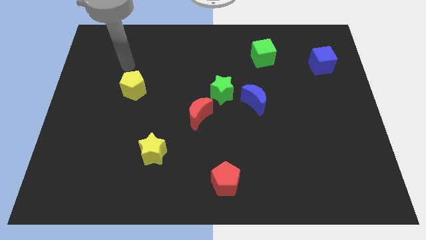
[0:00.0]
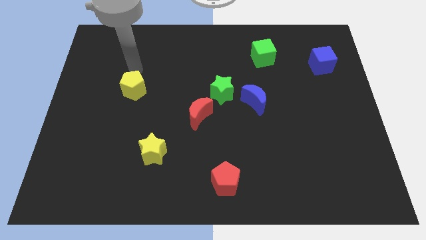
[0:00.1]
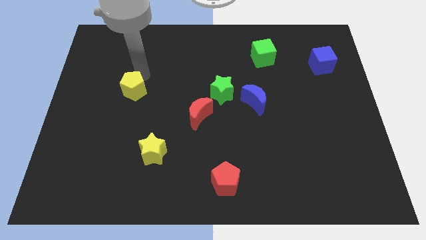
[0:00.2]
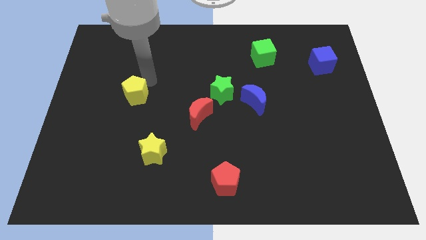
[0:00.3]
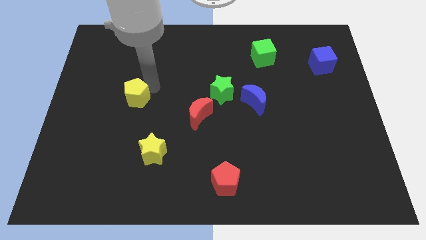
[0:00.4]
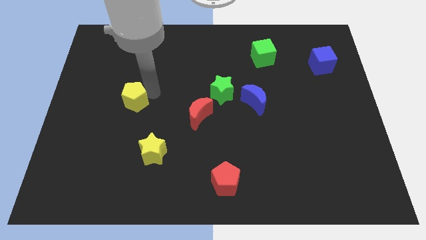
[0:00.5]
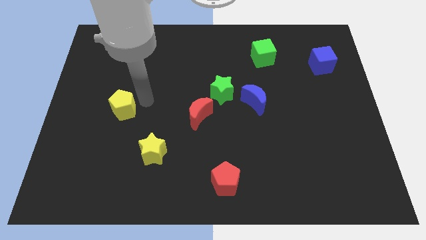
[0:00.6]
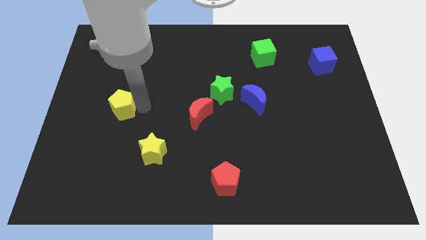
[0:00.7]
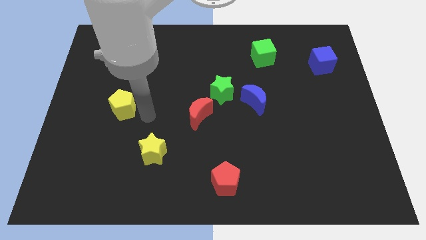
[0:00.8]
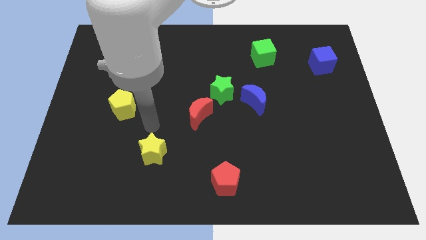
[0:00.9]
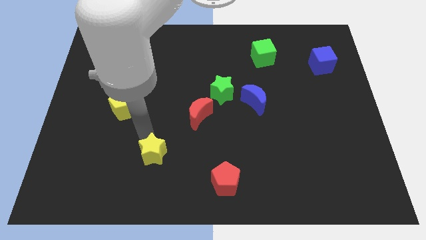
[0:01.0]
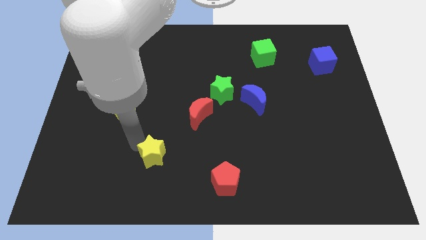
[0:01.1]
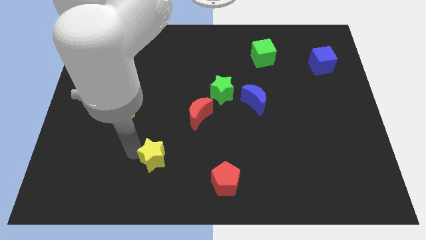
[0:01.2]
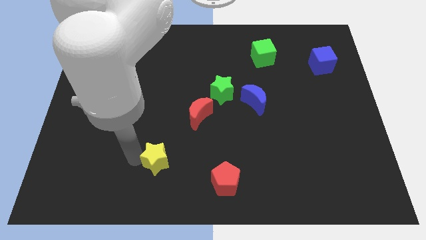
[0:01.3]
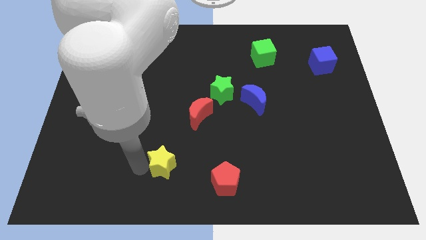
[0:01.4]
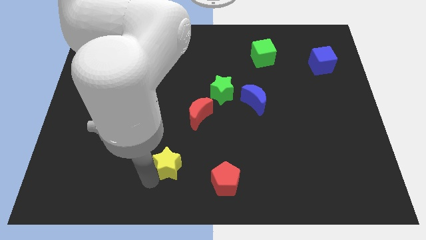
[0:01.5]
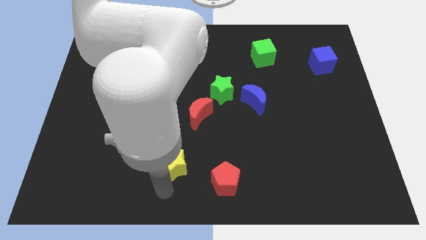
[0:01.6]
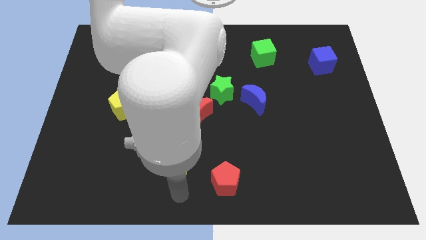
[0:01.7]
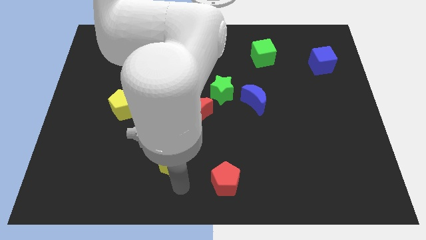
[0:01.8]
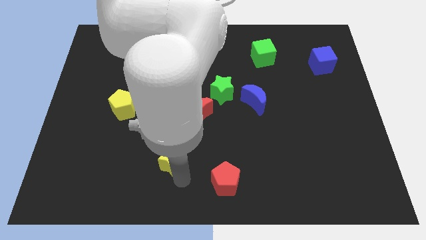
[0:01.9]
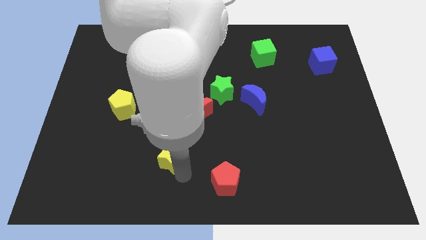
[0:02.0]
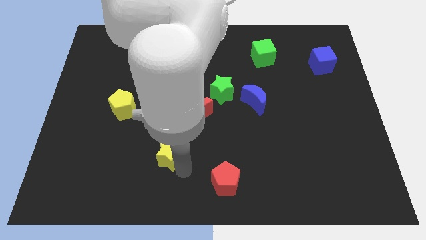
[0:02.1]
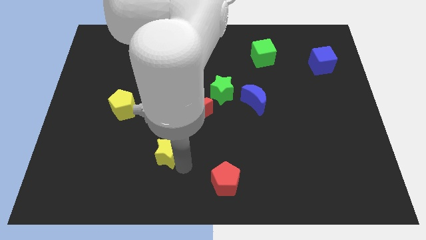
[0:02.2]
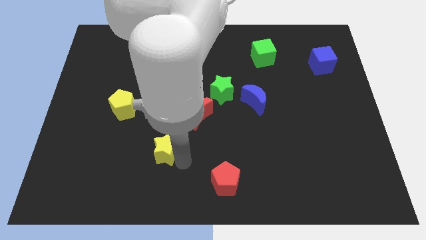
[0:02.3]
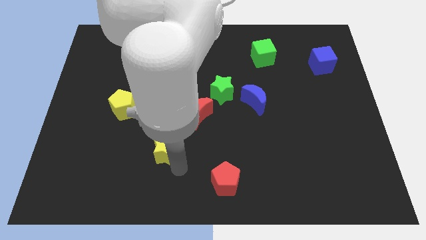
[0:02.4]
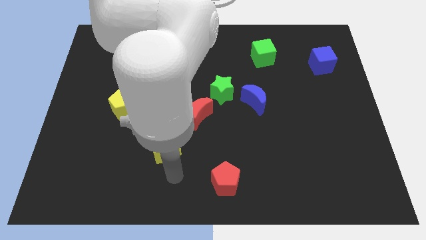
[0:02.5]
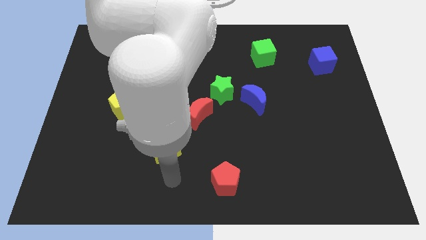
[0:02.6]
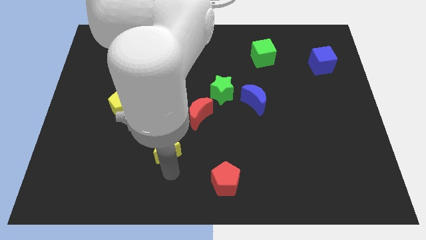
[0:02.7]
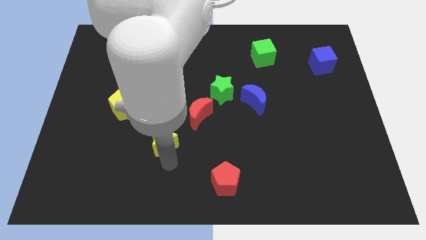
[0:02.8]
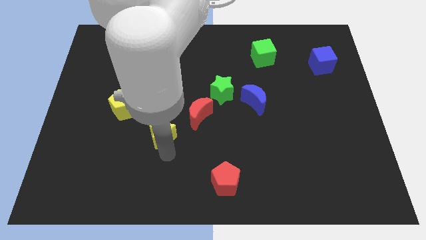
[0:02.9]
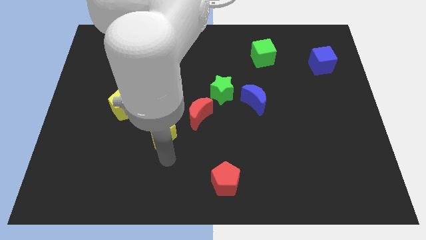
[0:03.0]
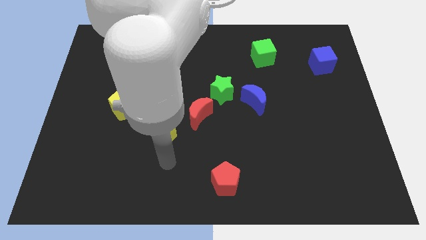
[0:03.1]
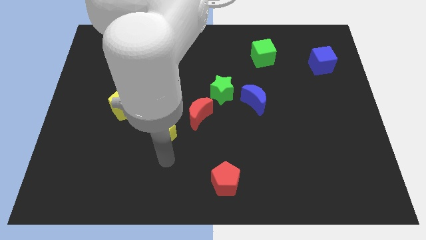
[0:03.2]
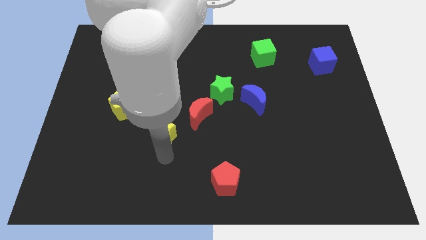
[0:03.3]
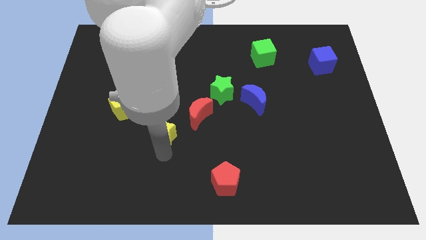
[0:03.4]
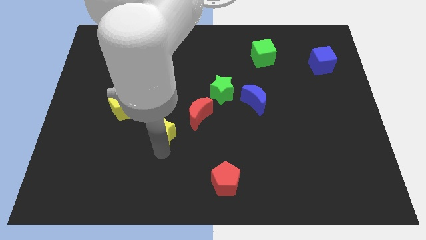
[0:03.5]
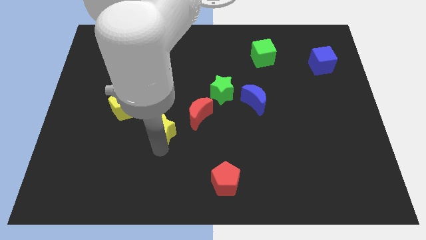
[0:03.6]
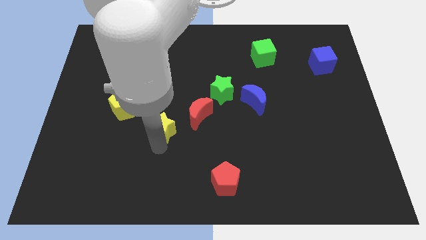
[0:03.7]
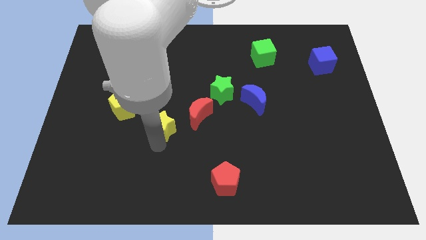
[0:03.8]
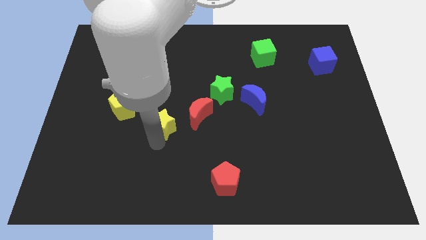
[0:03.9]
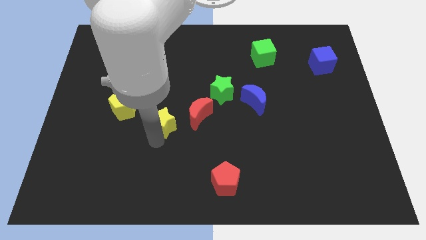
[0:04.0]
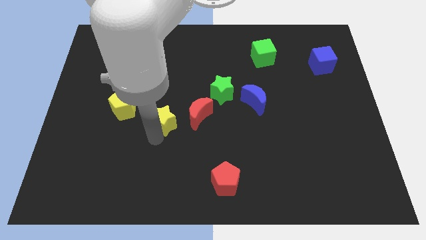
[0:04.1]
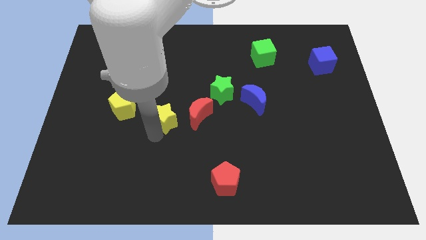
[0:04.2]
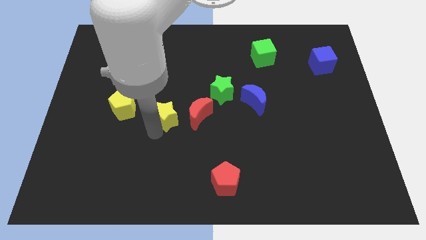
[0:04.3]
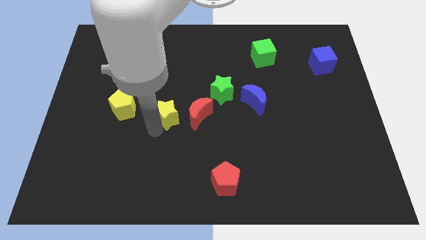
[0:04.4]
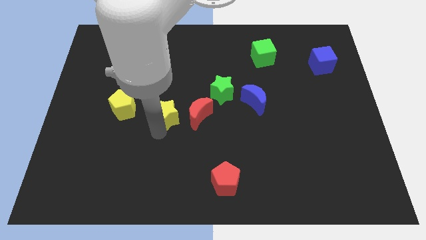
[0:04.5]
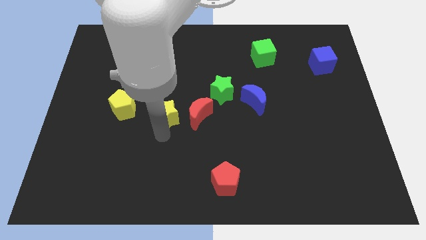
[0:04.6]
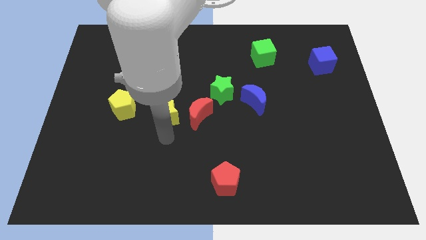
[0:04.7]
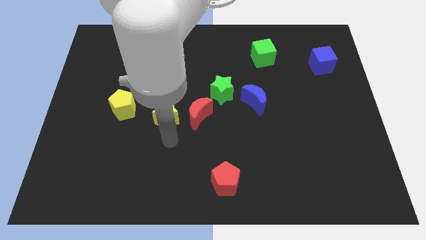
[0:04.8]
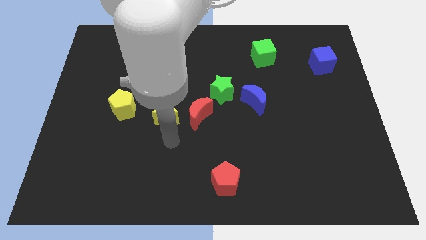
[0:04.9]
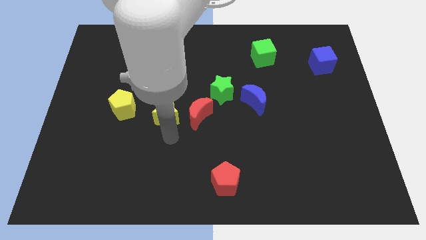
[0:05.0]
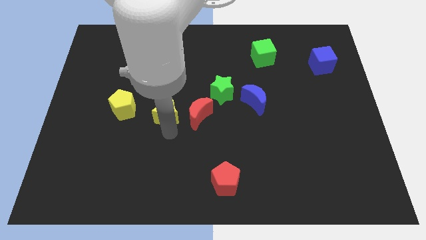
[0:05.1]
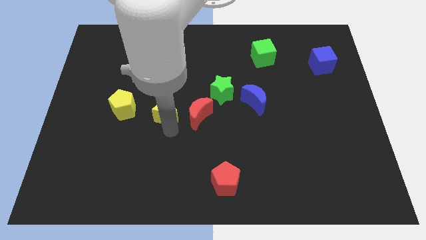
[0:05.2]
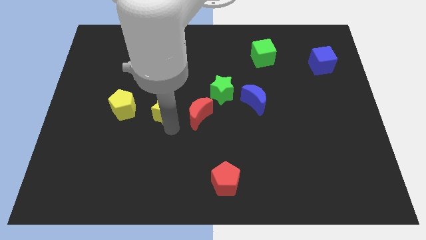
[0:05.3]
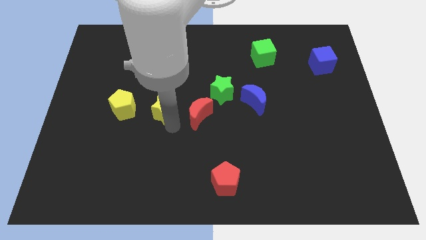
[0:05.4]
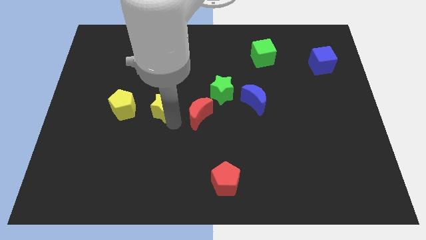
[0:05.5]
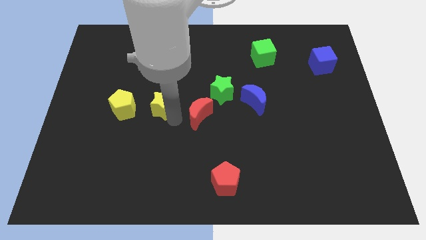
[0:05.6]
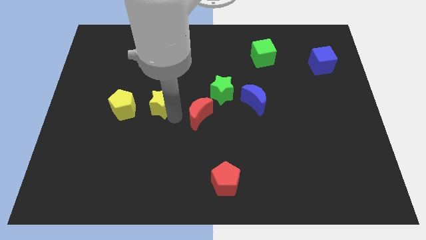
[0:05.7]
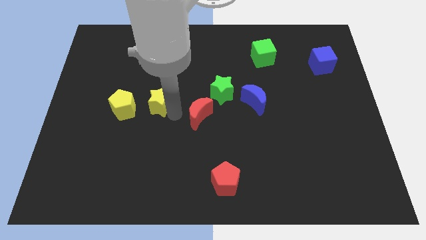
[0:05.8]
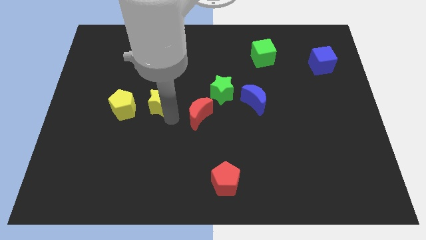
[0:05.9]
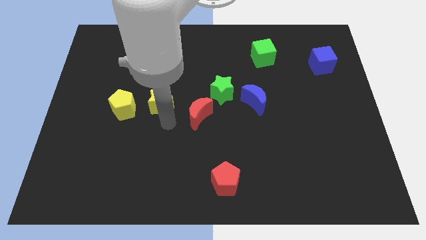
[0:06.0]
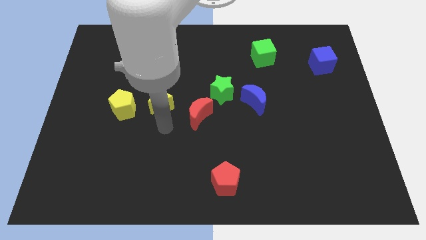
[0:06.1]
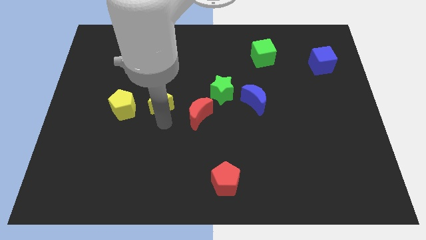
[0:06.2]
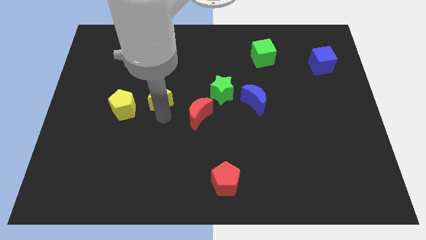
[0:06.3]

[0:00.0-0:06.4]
push the yellow star to the top right of the yellow pentagon

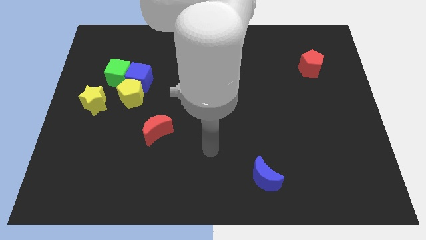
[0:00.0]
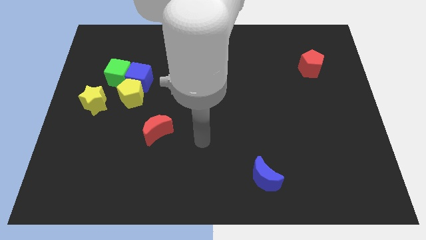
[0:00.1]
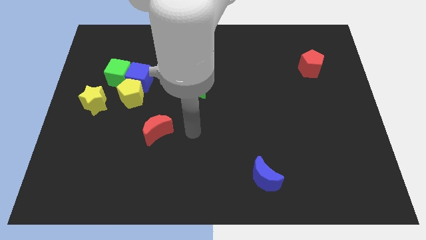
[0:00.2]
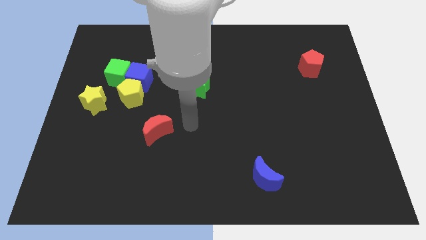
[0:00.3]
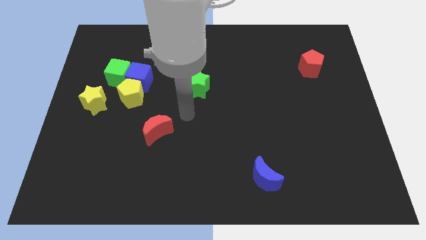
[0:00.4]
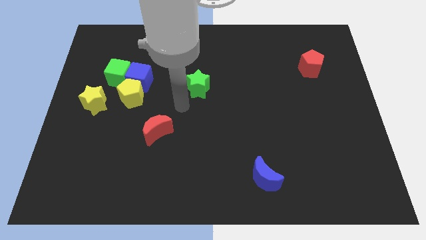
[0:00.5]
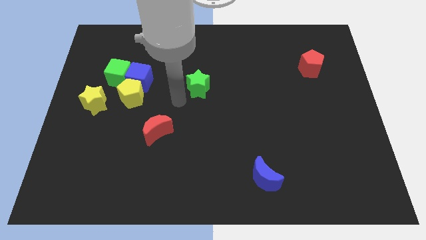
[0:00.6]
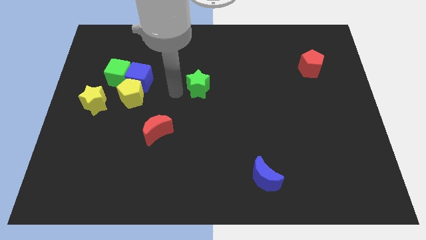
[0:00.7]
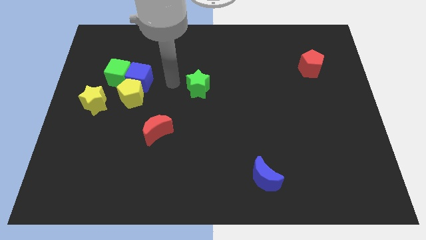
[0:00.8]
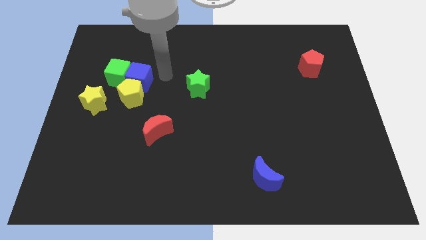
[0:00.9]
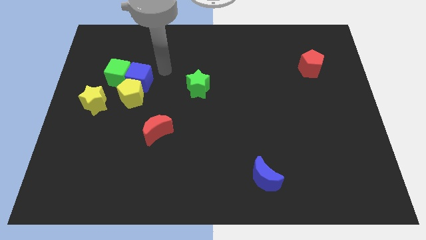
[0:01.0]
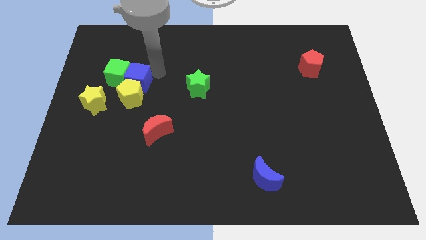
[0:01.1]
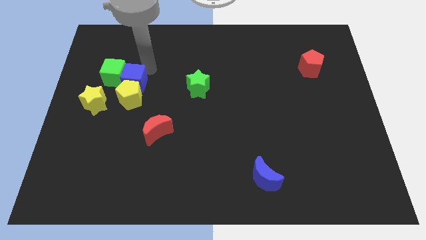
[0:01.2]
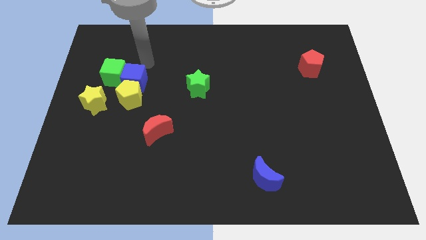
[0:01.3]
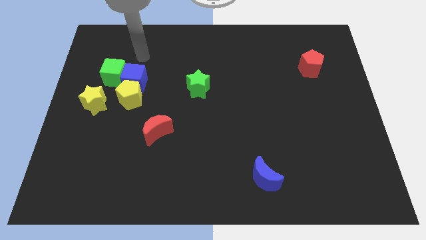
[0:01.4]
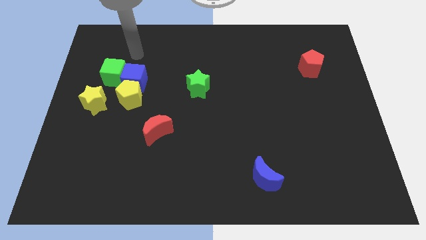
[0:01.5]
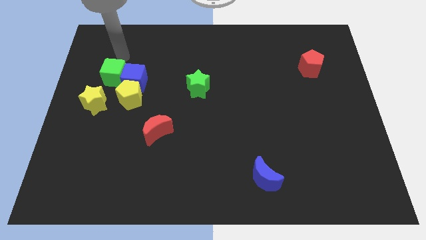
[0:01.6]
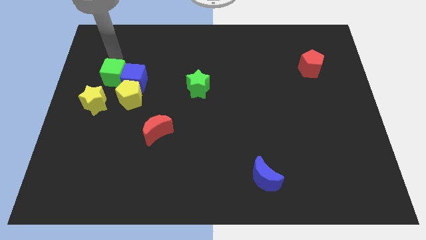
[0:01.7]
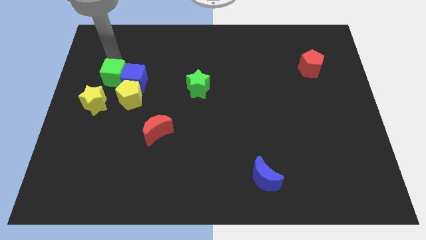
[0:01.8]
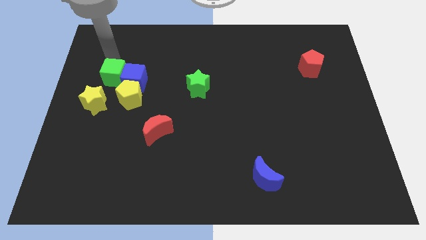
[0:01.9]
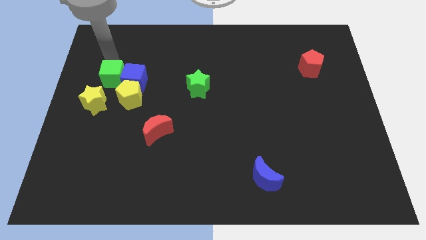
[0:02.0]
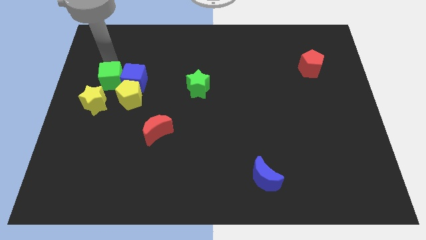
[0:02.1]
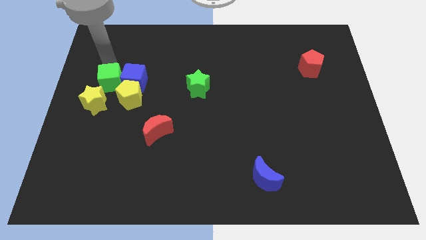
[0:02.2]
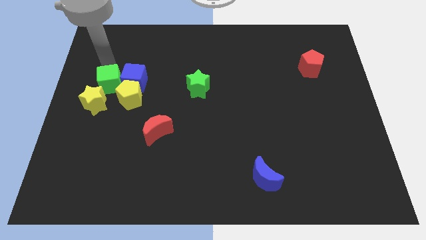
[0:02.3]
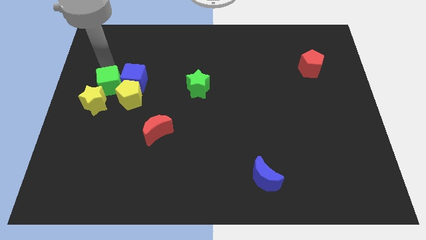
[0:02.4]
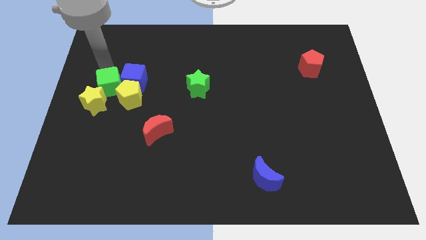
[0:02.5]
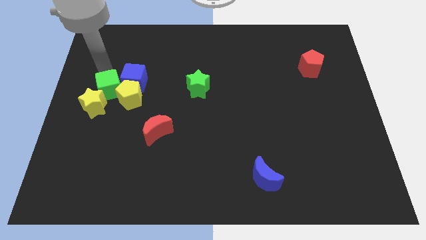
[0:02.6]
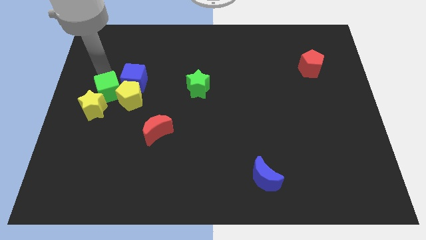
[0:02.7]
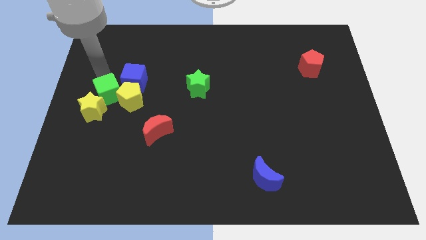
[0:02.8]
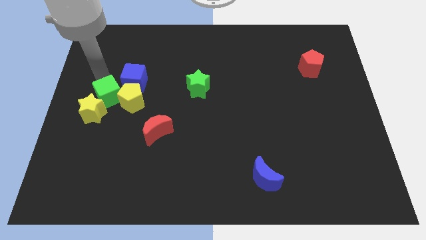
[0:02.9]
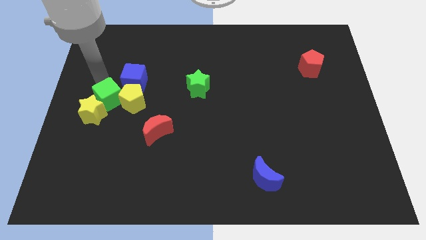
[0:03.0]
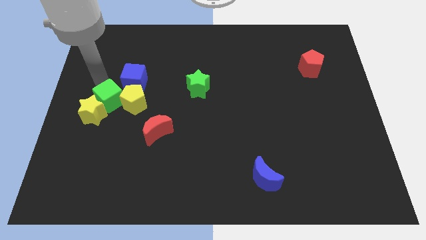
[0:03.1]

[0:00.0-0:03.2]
put the green cube just right of the yellow star
